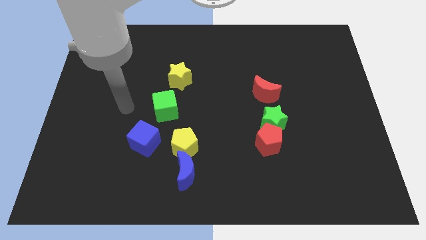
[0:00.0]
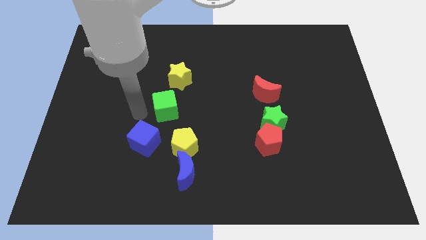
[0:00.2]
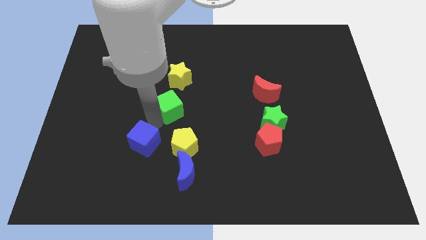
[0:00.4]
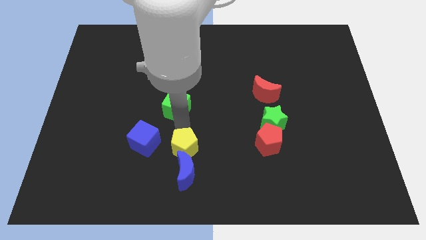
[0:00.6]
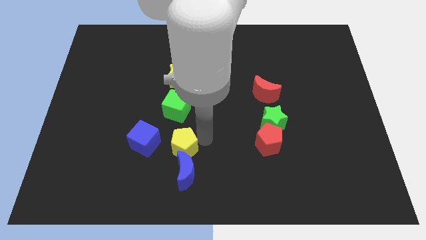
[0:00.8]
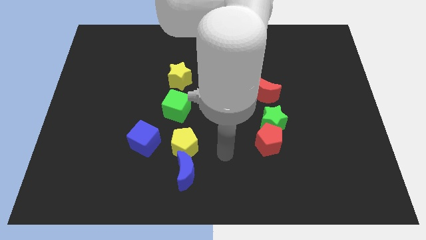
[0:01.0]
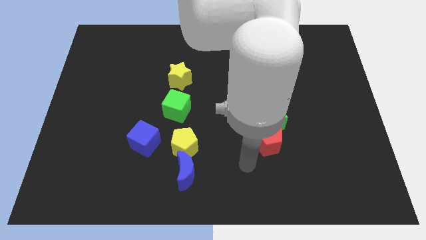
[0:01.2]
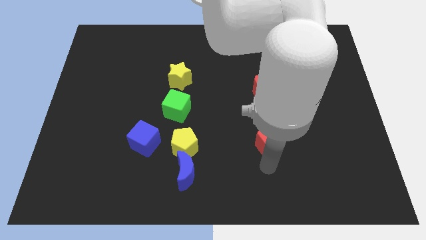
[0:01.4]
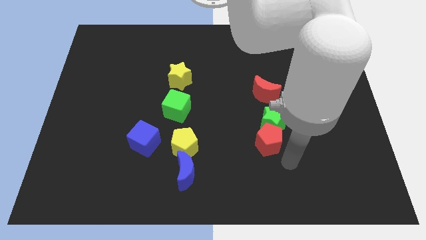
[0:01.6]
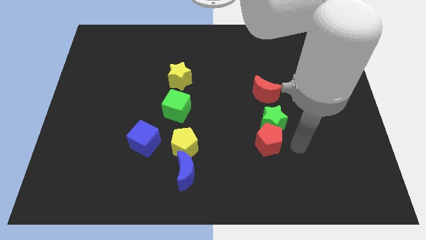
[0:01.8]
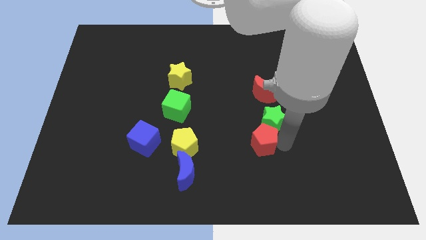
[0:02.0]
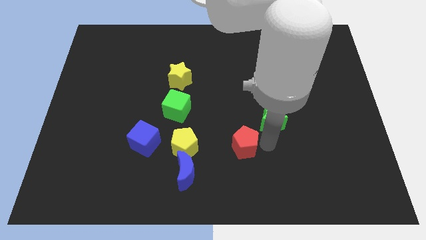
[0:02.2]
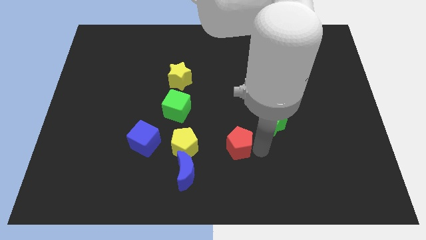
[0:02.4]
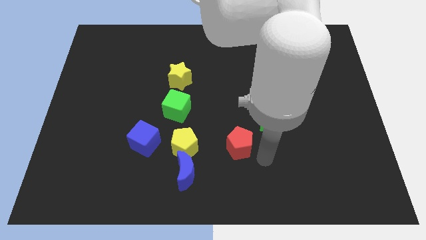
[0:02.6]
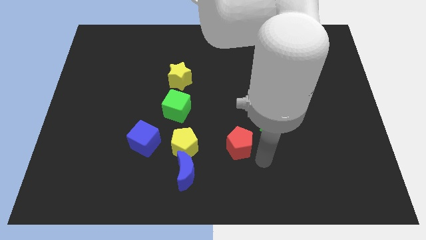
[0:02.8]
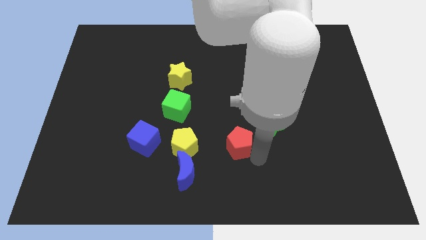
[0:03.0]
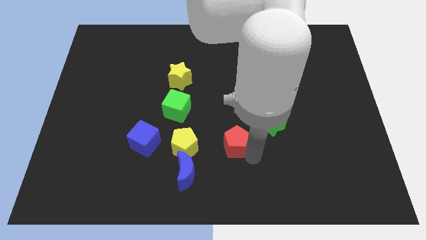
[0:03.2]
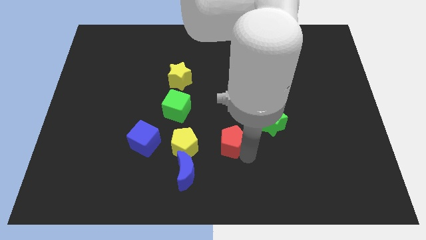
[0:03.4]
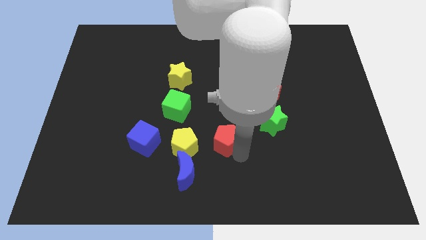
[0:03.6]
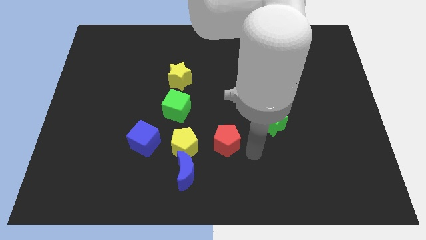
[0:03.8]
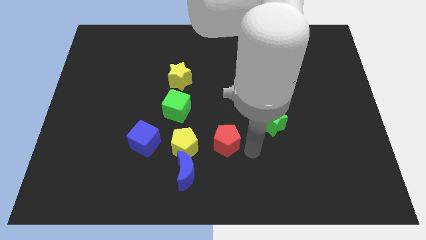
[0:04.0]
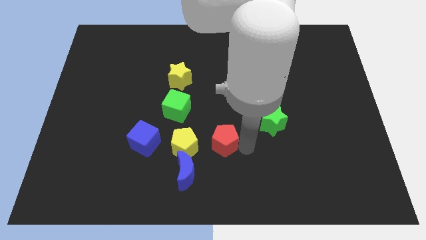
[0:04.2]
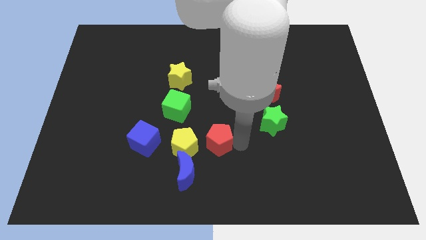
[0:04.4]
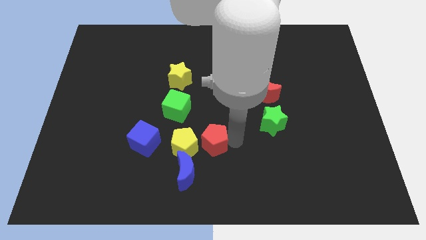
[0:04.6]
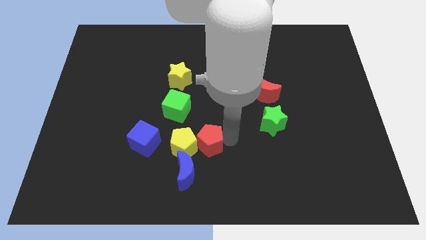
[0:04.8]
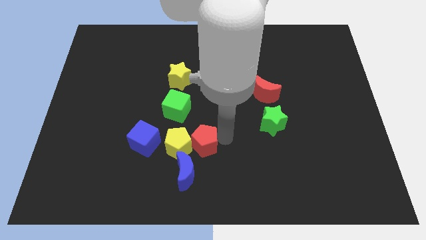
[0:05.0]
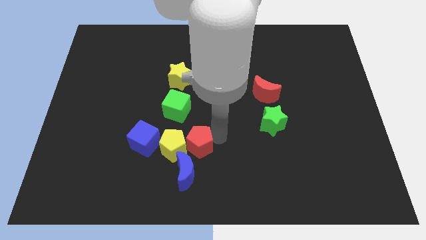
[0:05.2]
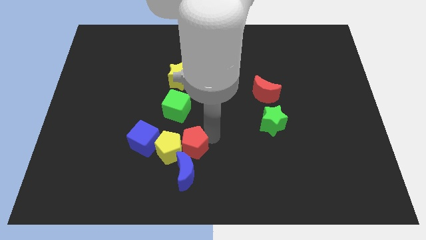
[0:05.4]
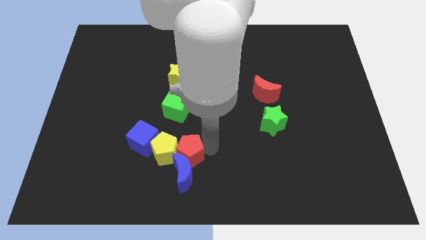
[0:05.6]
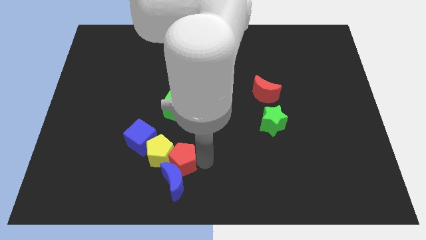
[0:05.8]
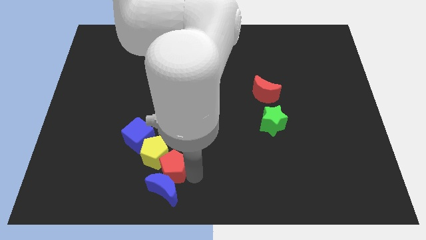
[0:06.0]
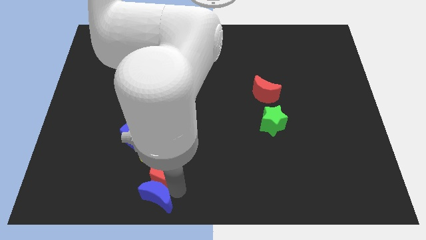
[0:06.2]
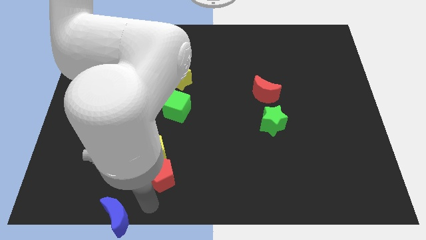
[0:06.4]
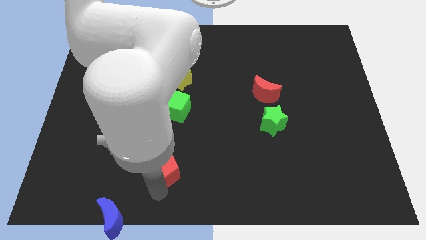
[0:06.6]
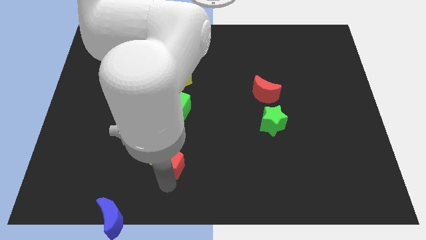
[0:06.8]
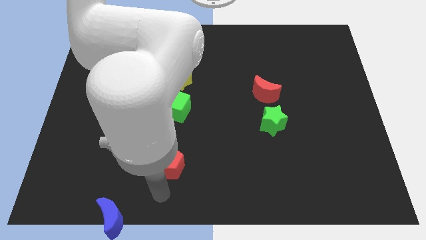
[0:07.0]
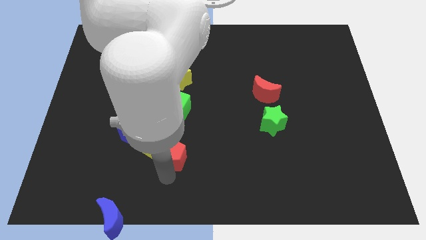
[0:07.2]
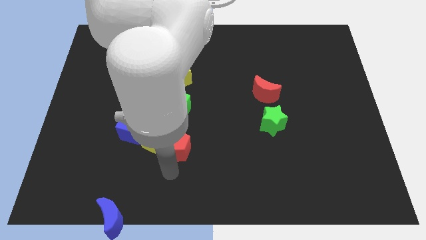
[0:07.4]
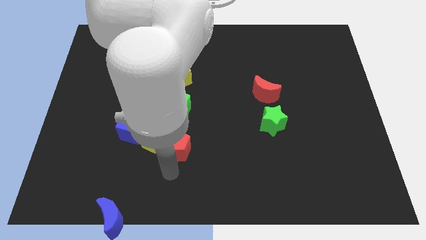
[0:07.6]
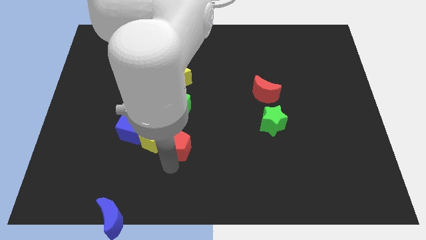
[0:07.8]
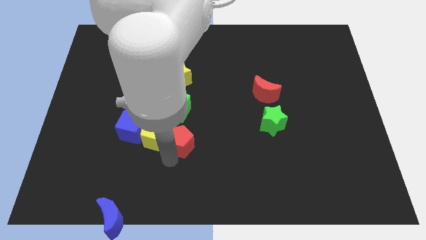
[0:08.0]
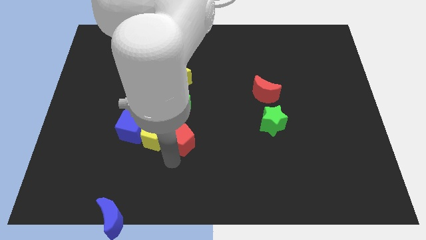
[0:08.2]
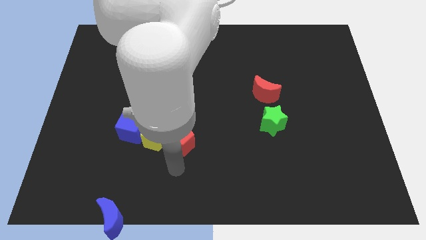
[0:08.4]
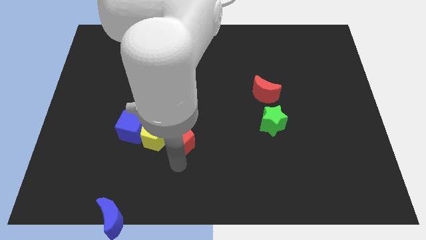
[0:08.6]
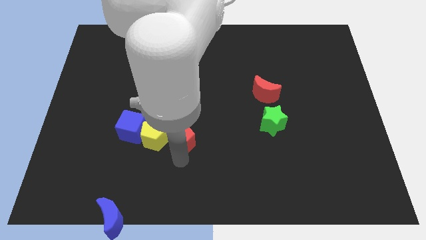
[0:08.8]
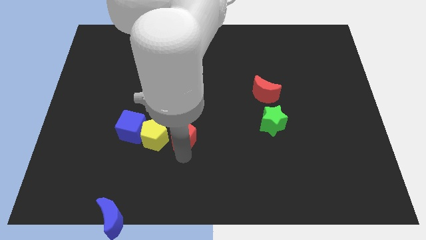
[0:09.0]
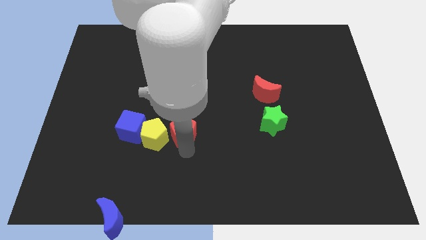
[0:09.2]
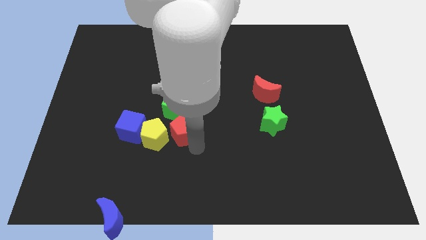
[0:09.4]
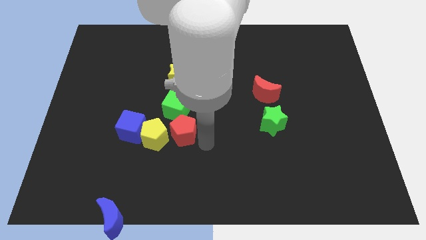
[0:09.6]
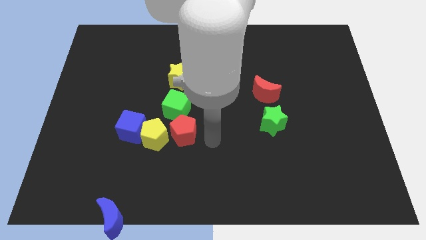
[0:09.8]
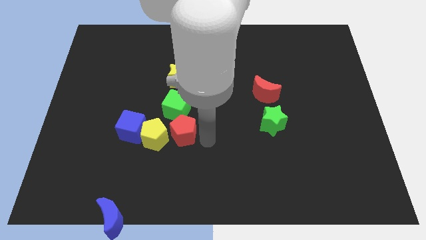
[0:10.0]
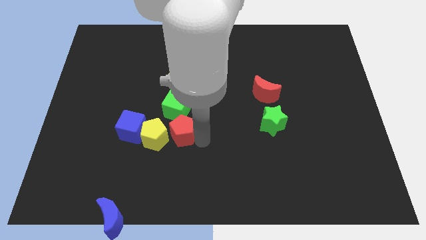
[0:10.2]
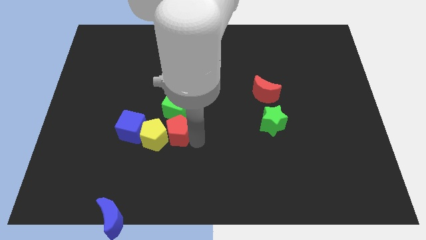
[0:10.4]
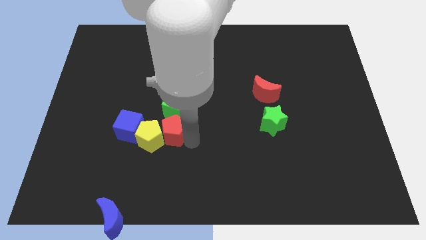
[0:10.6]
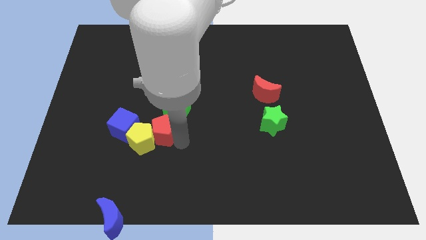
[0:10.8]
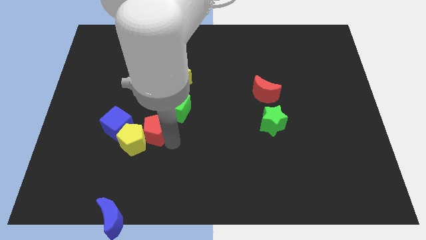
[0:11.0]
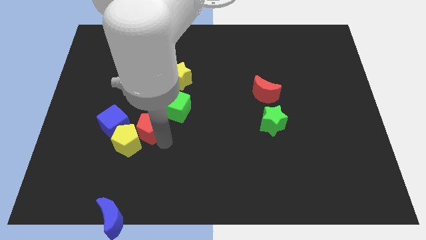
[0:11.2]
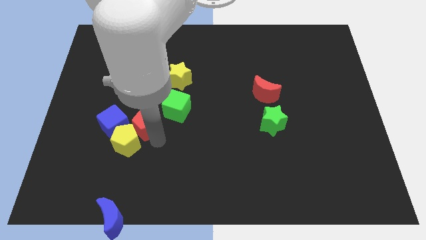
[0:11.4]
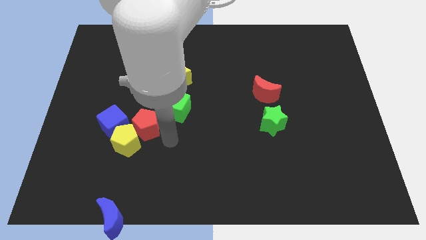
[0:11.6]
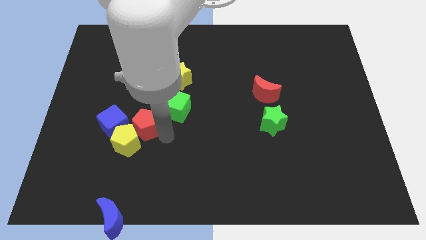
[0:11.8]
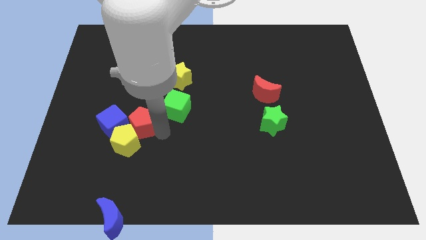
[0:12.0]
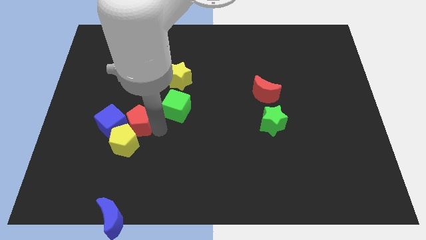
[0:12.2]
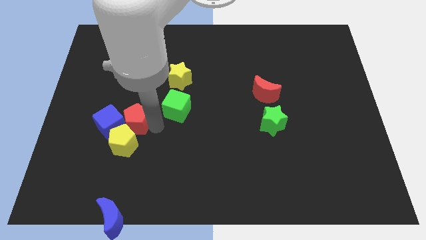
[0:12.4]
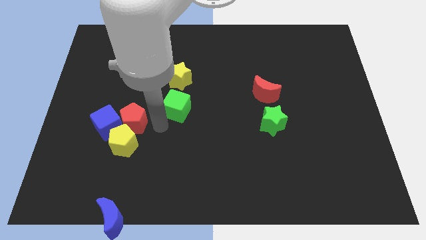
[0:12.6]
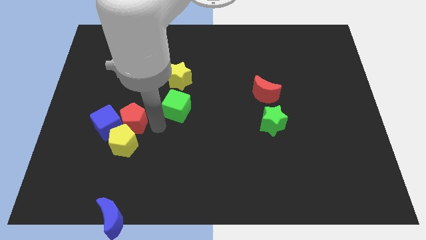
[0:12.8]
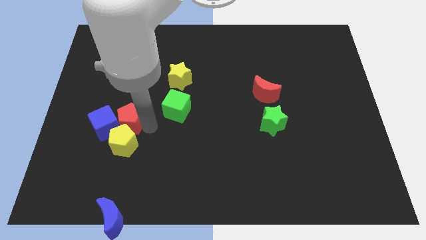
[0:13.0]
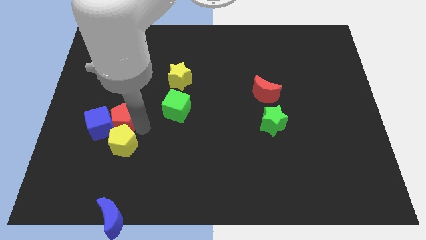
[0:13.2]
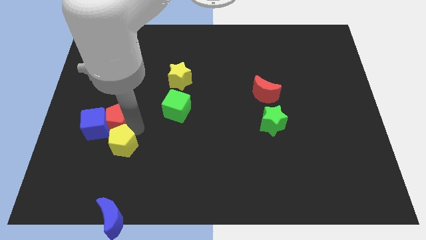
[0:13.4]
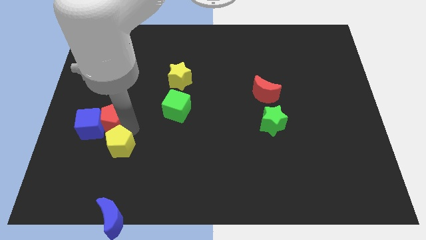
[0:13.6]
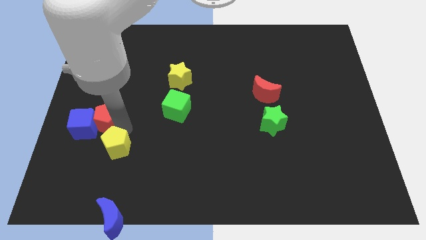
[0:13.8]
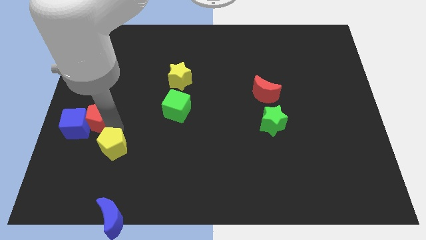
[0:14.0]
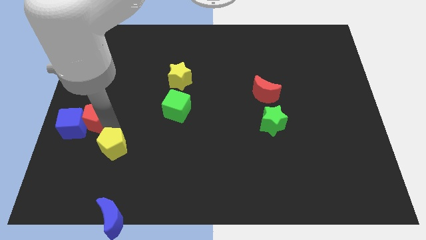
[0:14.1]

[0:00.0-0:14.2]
move the red pentagon to the center left
